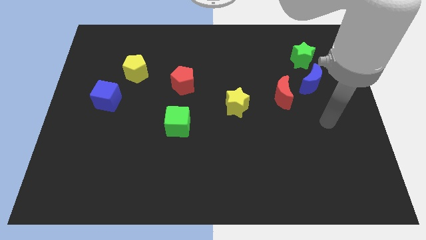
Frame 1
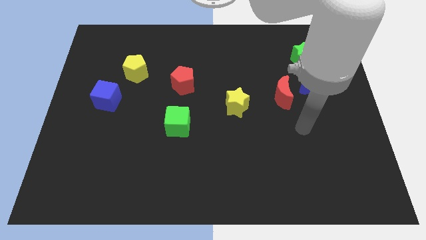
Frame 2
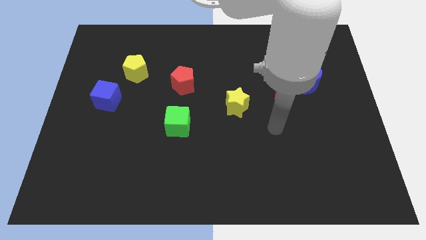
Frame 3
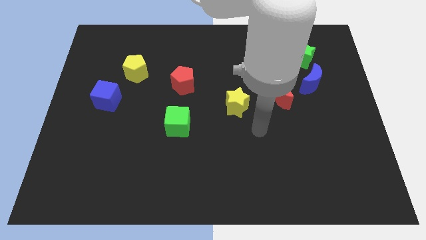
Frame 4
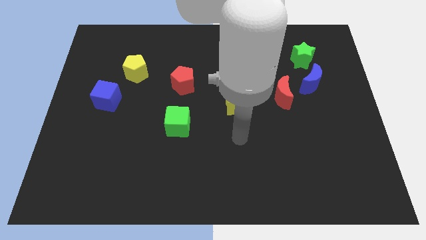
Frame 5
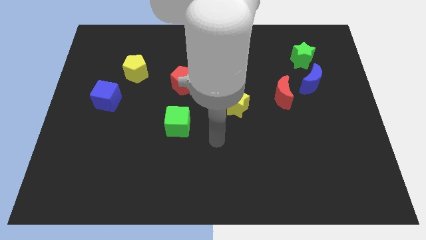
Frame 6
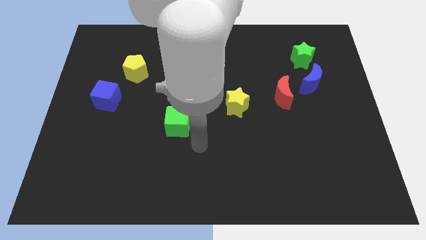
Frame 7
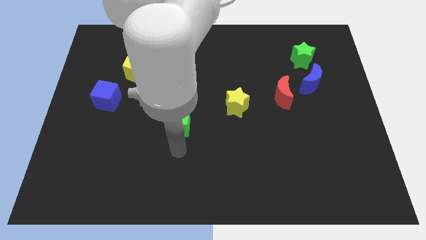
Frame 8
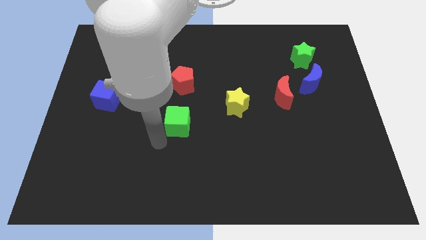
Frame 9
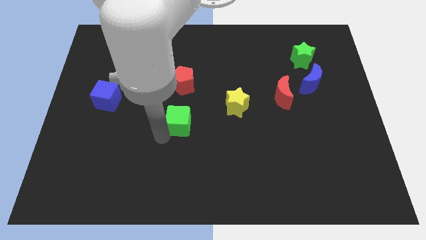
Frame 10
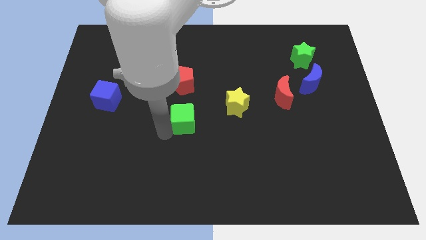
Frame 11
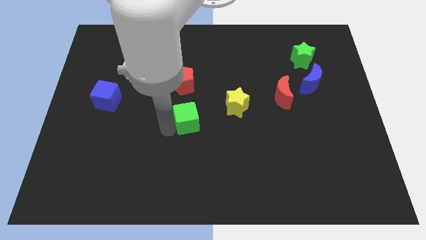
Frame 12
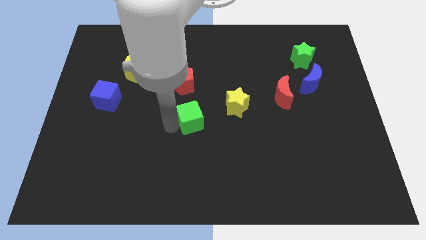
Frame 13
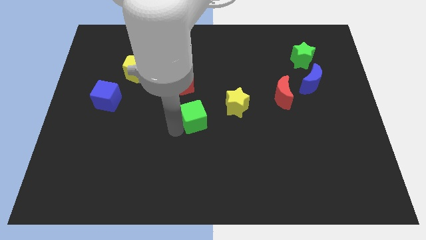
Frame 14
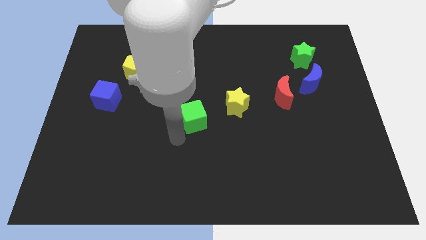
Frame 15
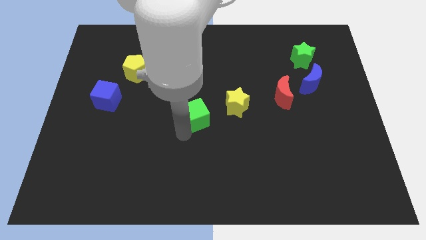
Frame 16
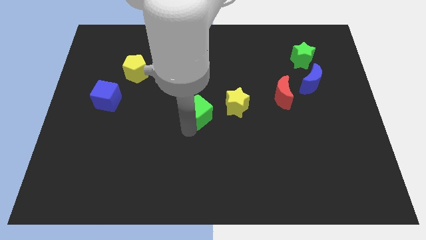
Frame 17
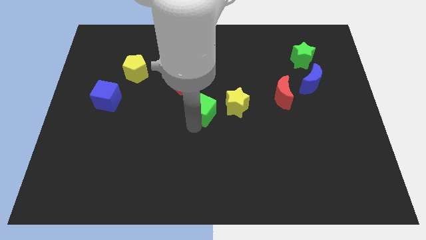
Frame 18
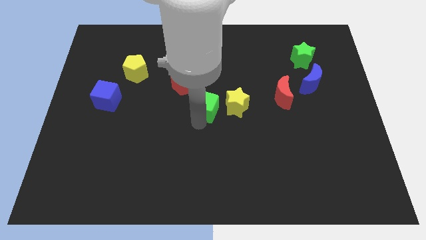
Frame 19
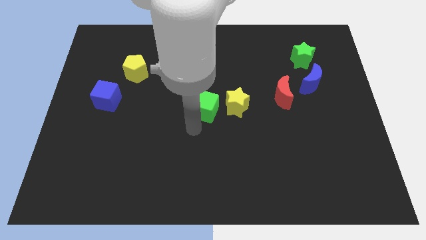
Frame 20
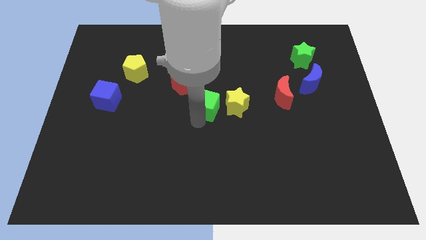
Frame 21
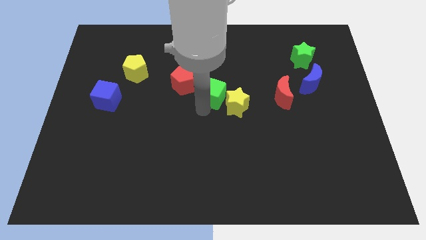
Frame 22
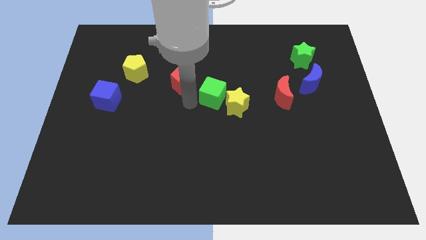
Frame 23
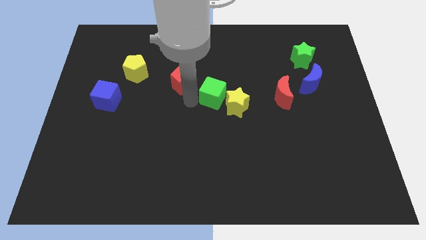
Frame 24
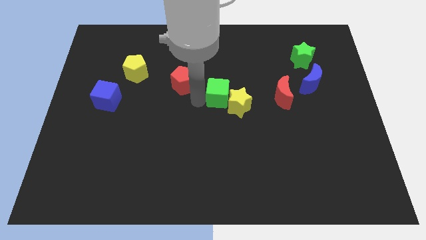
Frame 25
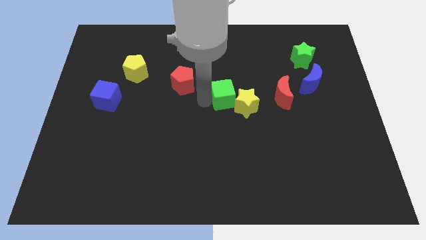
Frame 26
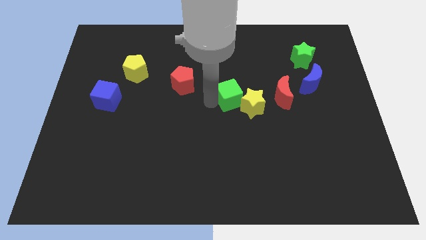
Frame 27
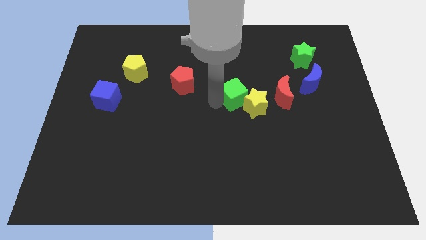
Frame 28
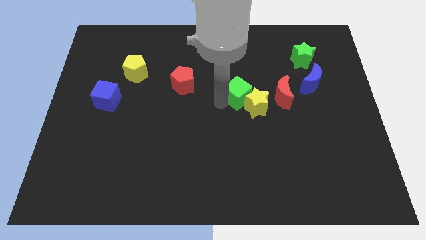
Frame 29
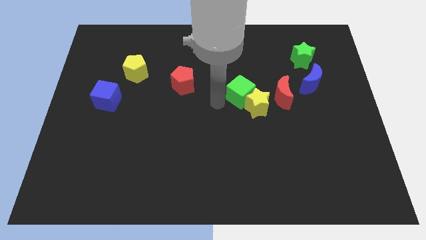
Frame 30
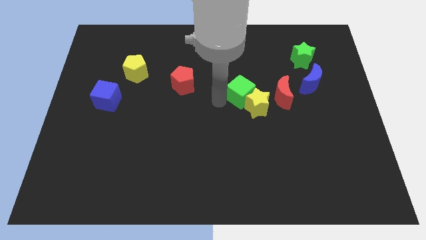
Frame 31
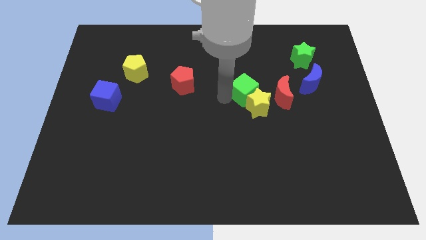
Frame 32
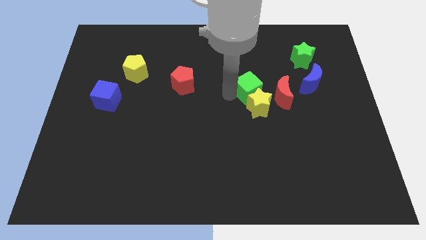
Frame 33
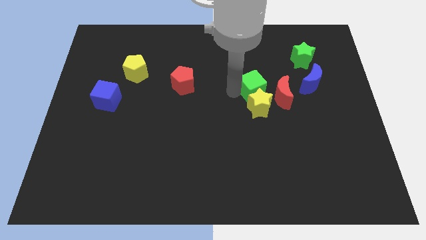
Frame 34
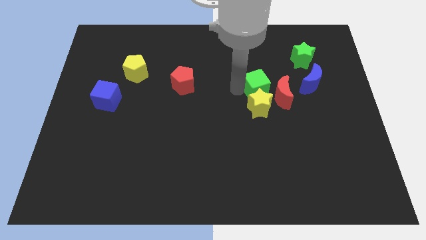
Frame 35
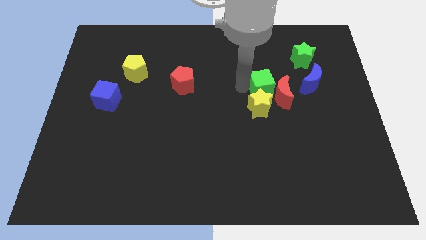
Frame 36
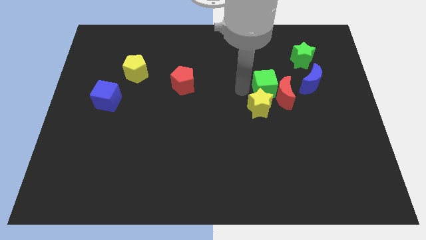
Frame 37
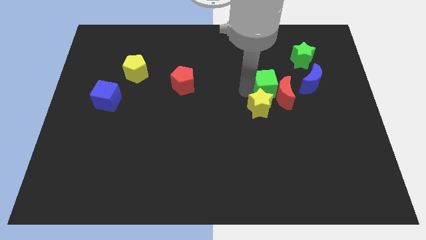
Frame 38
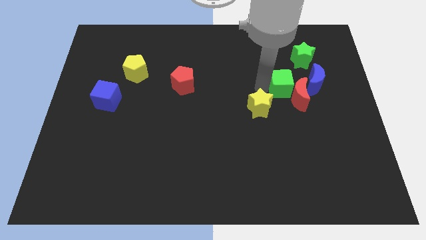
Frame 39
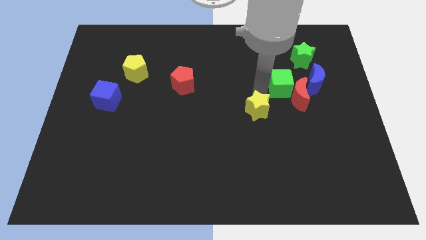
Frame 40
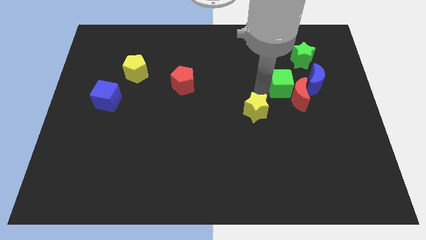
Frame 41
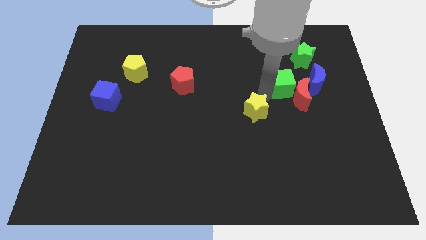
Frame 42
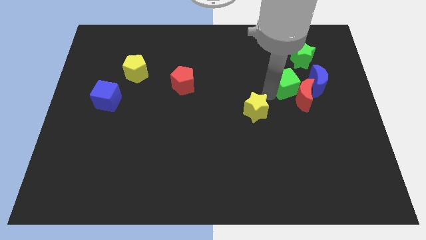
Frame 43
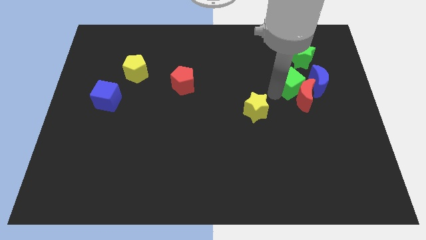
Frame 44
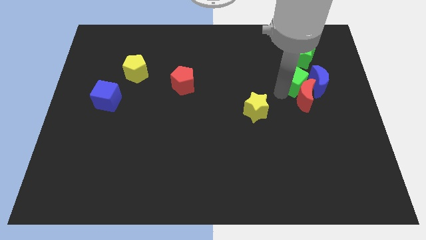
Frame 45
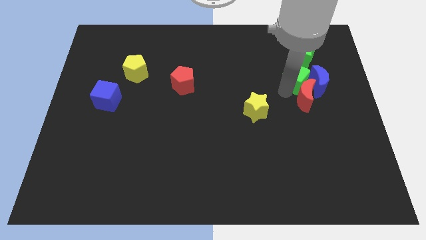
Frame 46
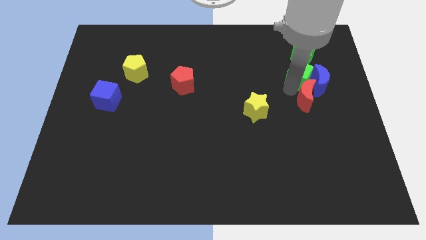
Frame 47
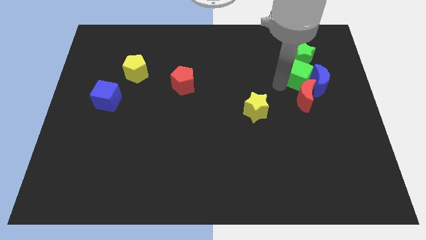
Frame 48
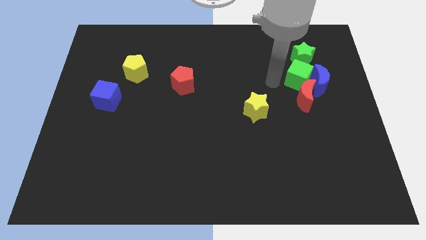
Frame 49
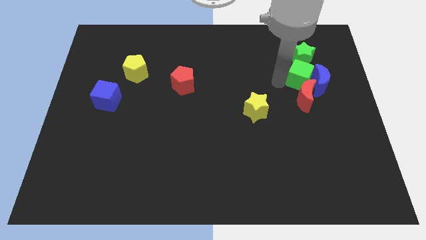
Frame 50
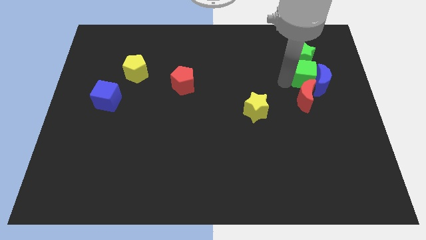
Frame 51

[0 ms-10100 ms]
slide the green cube to the bottom right side of the green star

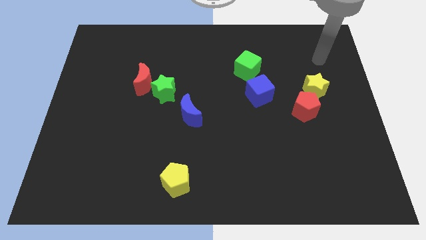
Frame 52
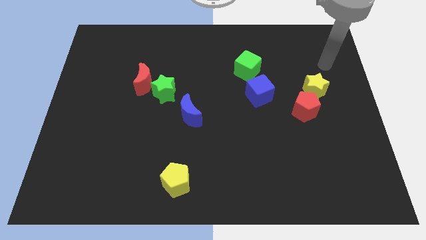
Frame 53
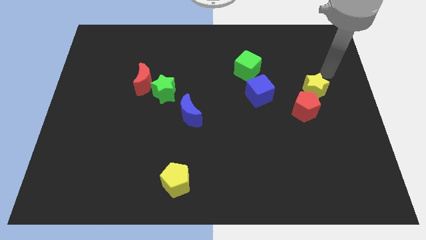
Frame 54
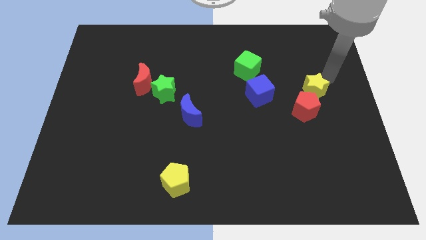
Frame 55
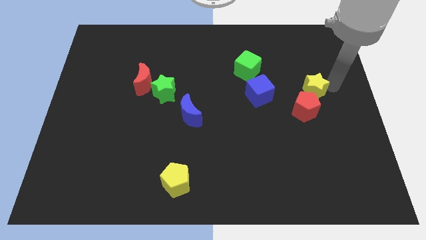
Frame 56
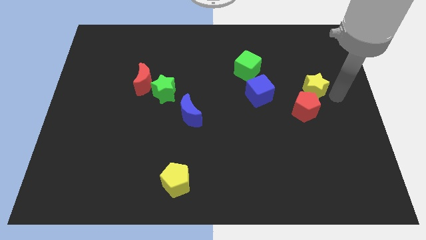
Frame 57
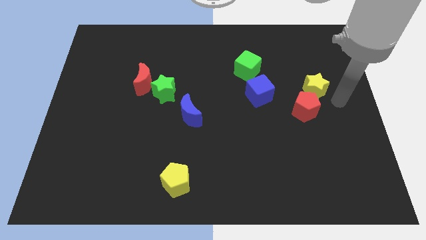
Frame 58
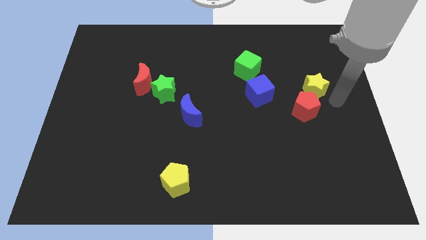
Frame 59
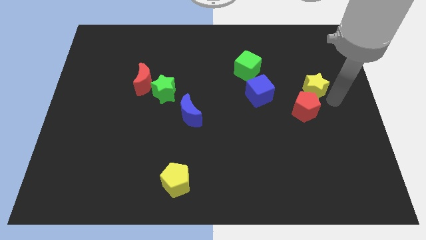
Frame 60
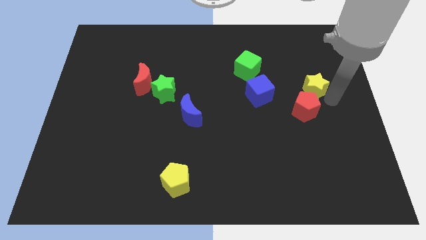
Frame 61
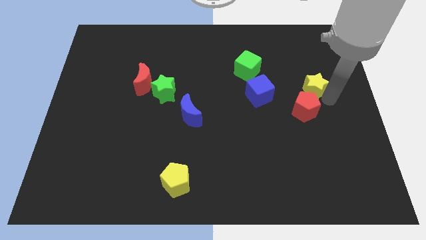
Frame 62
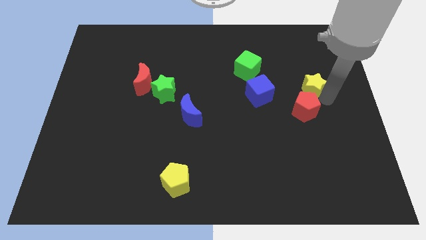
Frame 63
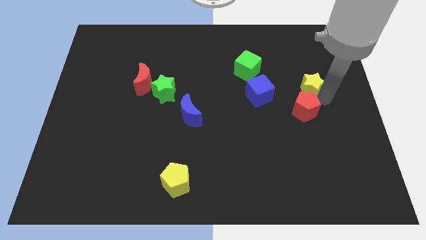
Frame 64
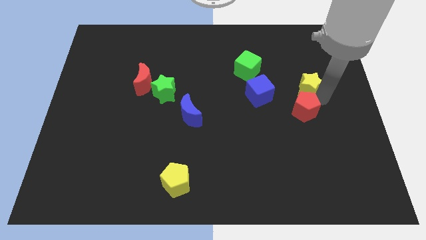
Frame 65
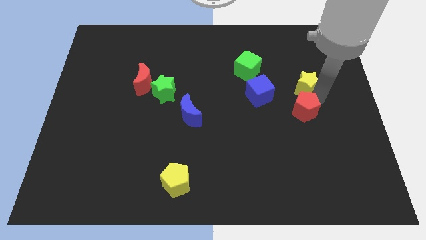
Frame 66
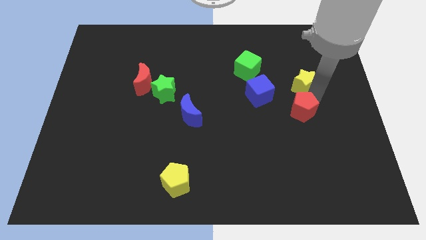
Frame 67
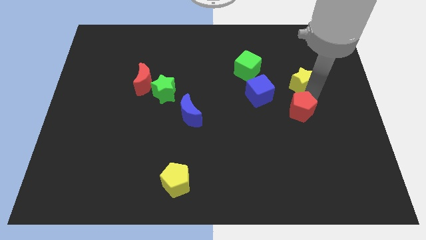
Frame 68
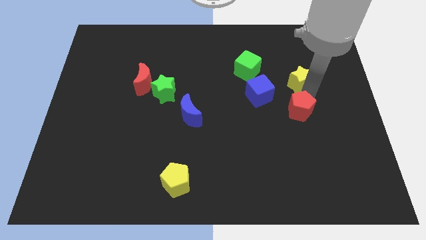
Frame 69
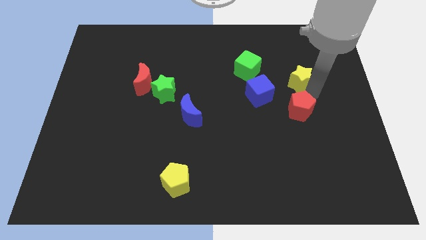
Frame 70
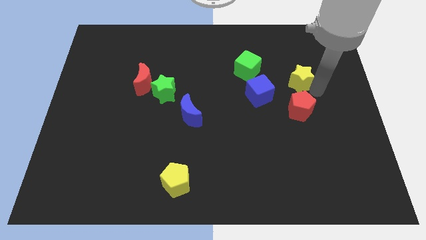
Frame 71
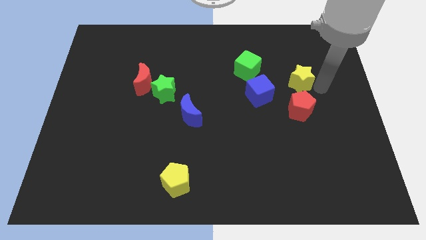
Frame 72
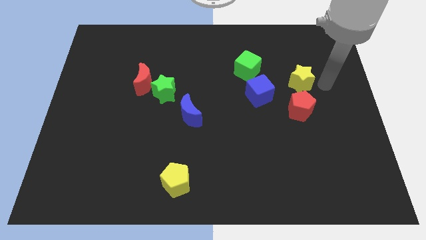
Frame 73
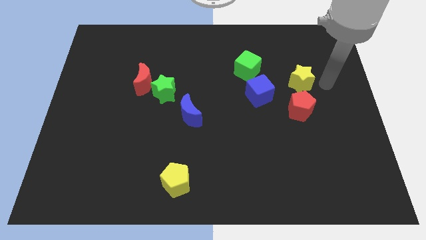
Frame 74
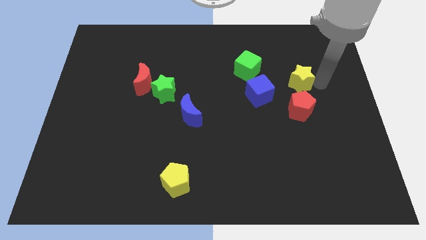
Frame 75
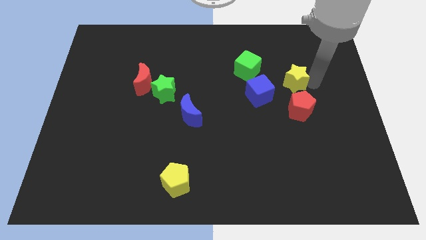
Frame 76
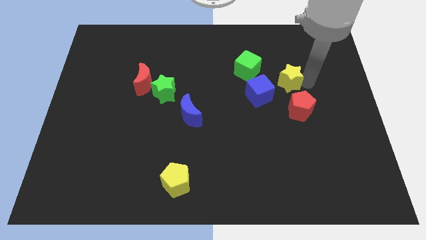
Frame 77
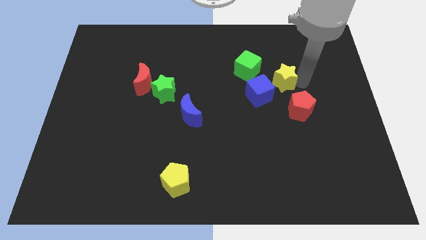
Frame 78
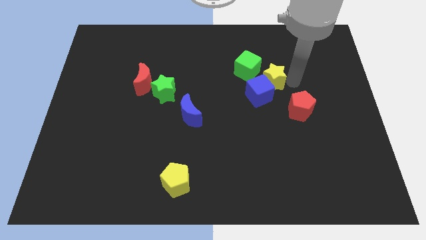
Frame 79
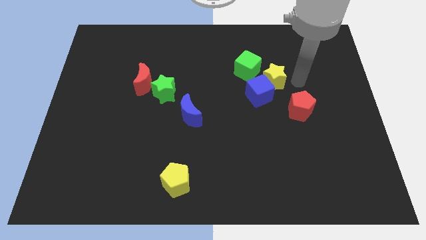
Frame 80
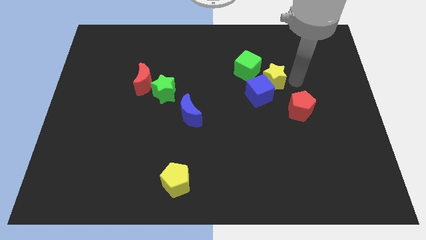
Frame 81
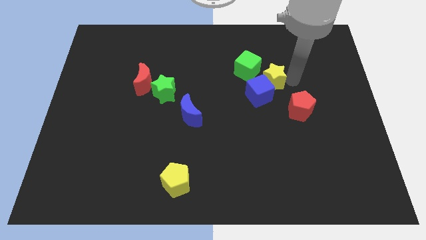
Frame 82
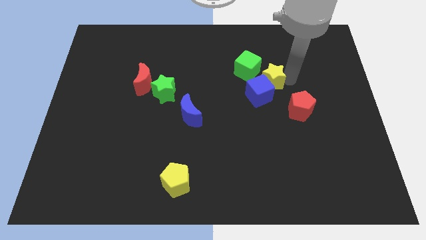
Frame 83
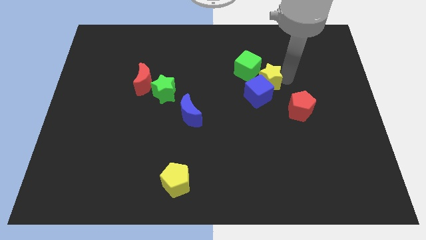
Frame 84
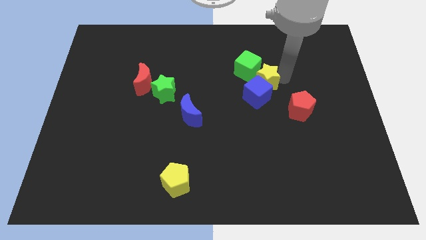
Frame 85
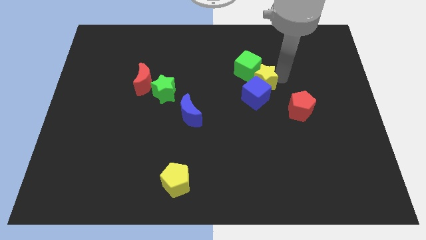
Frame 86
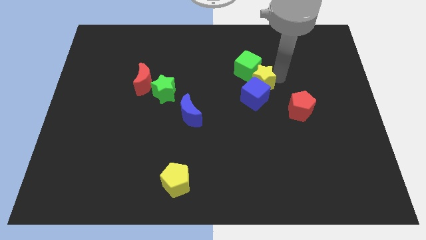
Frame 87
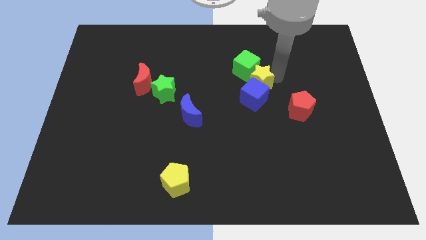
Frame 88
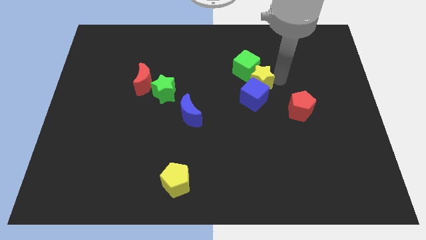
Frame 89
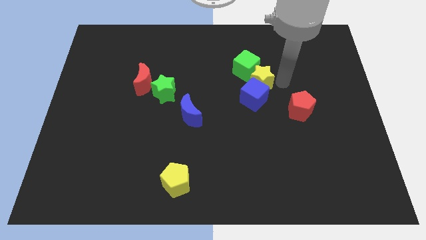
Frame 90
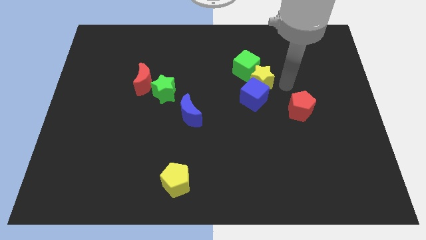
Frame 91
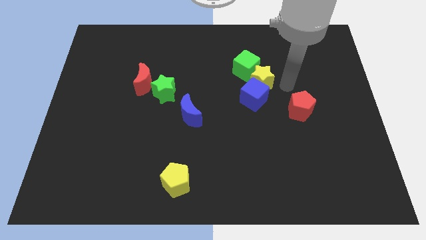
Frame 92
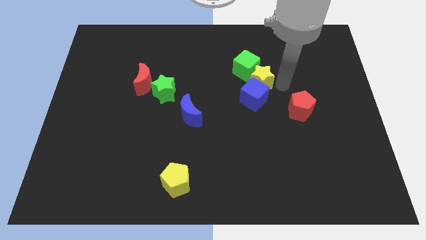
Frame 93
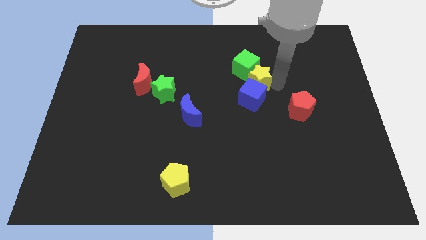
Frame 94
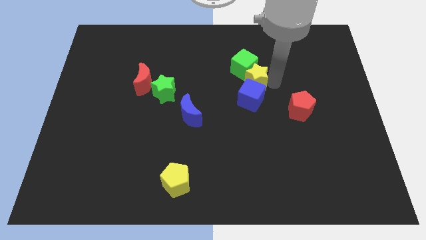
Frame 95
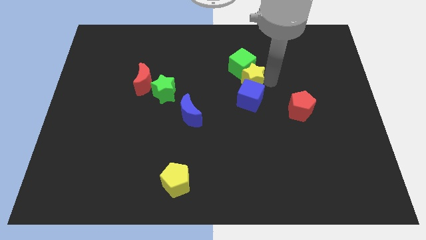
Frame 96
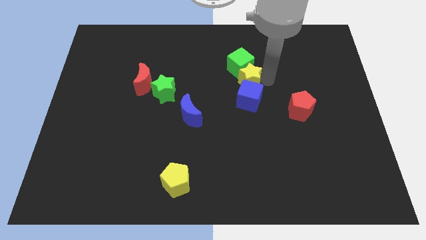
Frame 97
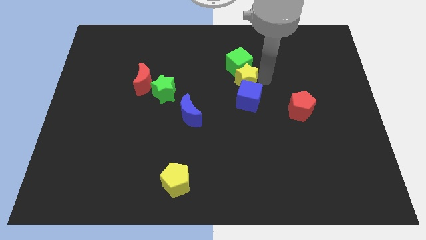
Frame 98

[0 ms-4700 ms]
slide the yellow star to the bottom left of the green cube
